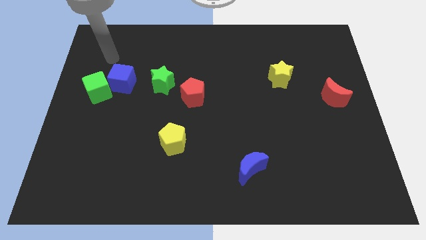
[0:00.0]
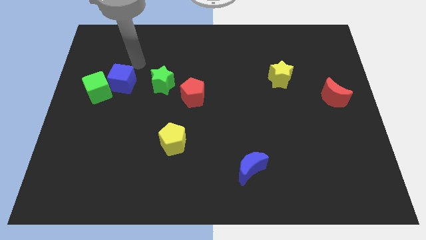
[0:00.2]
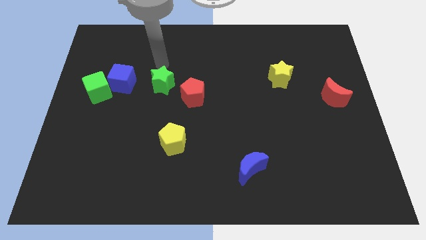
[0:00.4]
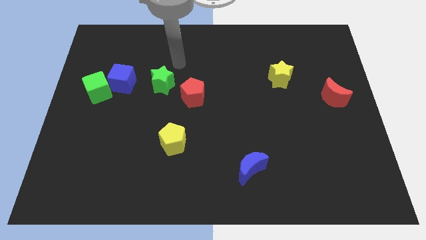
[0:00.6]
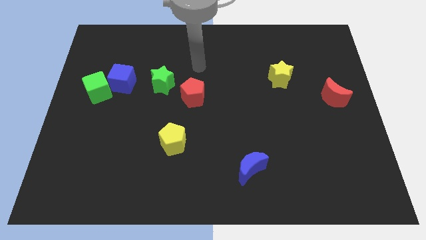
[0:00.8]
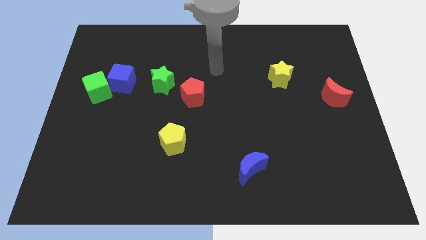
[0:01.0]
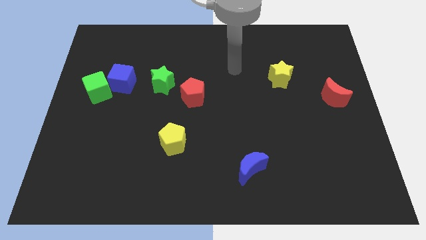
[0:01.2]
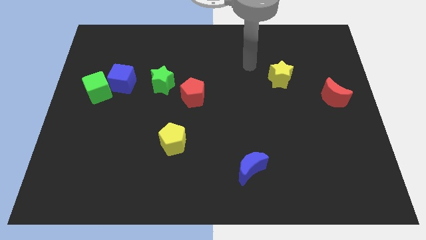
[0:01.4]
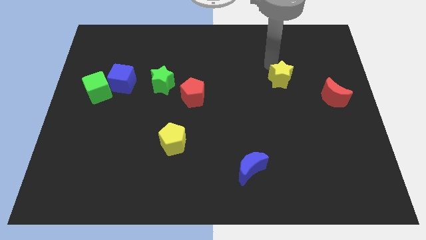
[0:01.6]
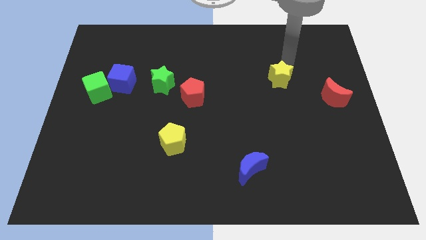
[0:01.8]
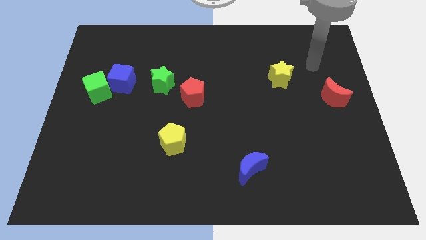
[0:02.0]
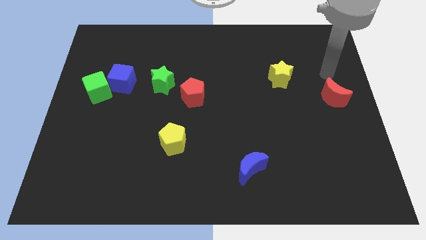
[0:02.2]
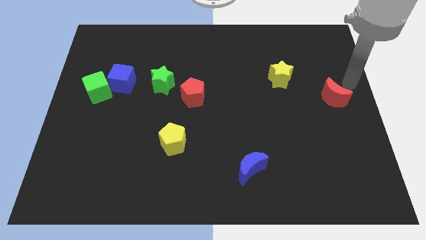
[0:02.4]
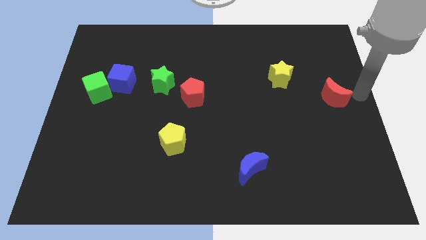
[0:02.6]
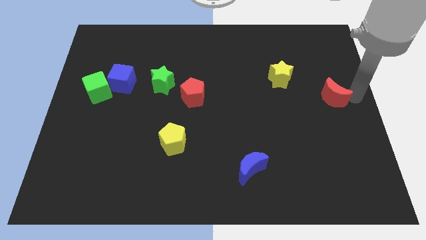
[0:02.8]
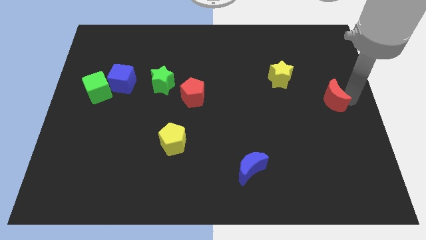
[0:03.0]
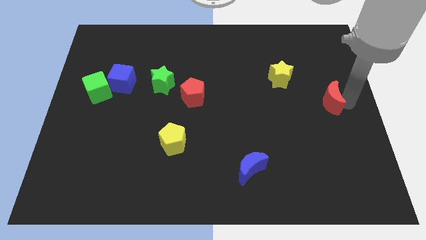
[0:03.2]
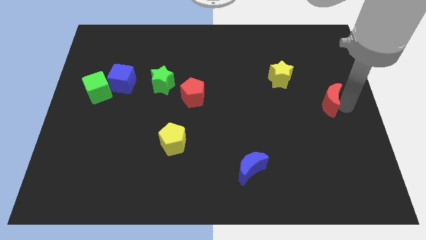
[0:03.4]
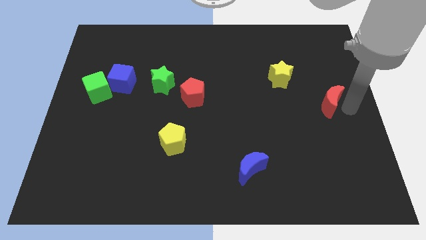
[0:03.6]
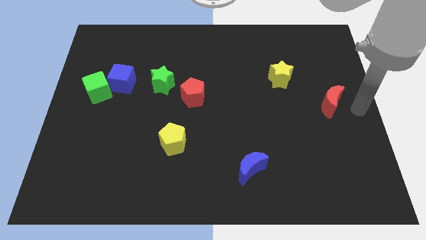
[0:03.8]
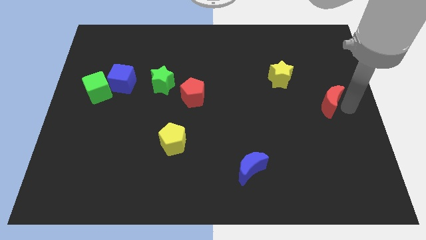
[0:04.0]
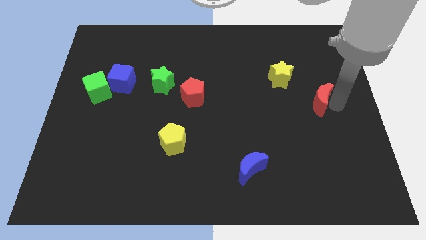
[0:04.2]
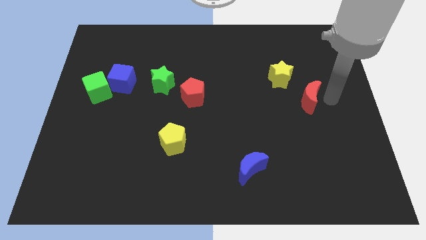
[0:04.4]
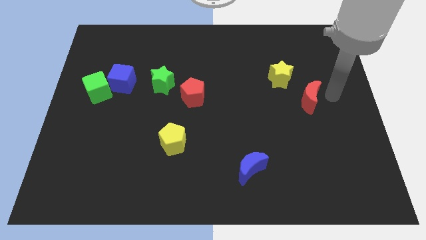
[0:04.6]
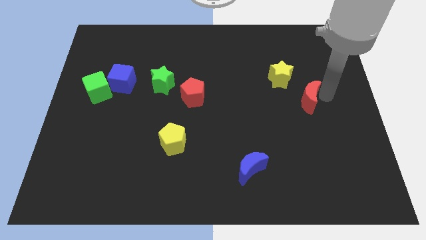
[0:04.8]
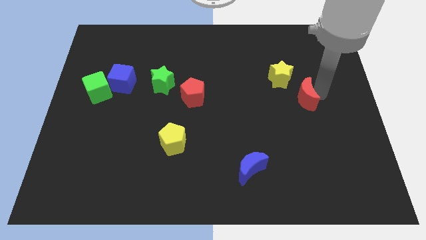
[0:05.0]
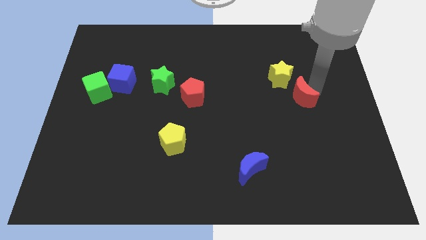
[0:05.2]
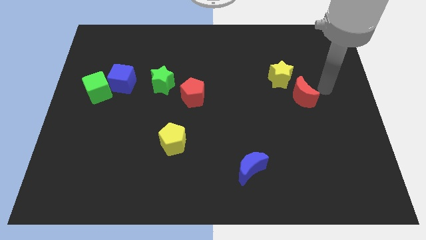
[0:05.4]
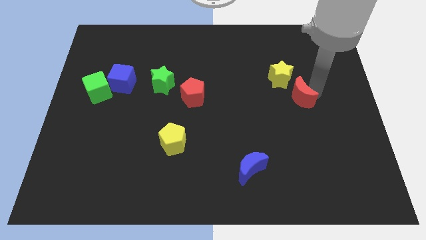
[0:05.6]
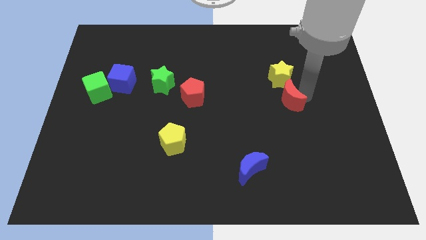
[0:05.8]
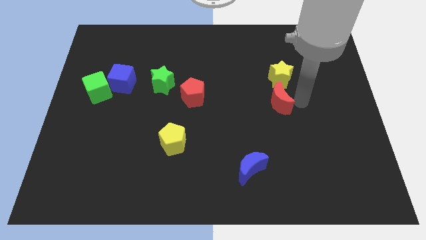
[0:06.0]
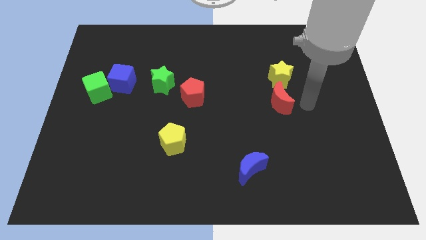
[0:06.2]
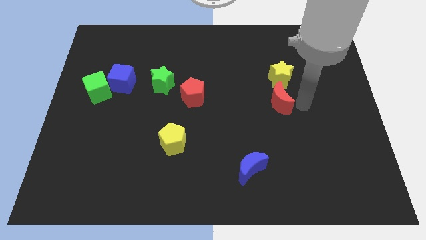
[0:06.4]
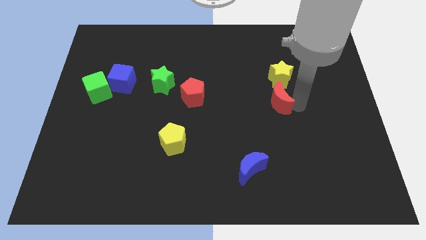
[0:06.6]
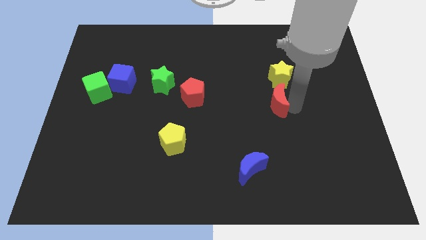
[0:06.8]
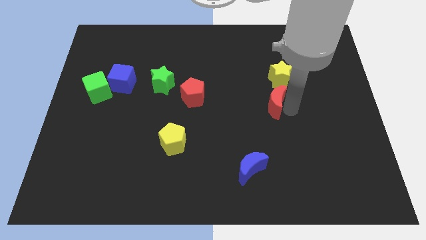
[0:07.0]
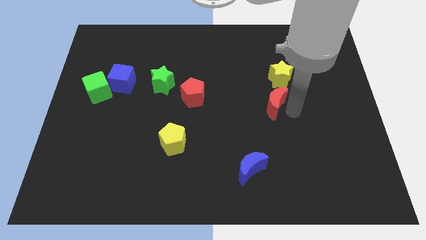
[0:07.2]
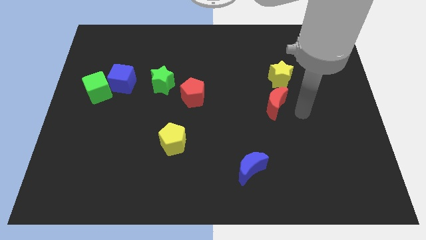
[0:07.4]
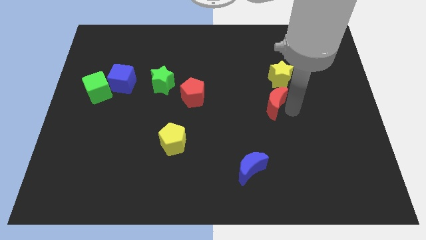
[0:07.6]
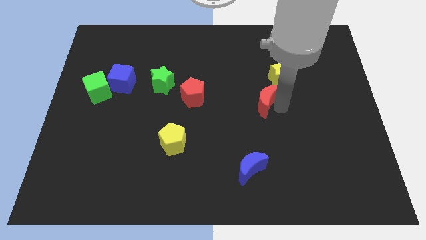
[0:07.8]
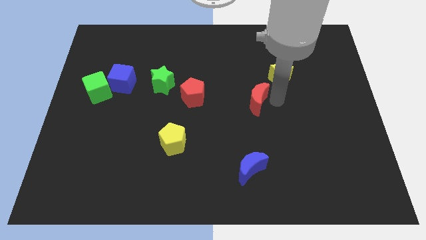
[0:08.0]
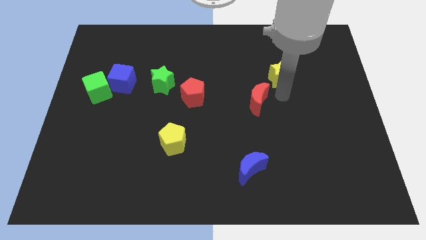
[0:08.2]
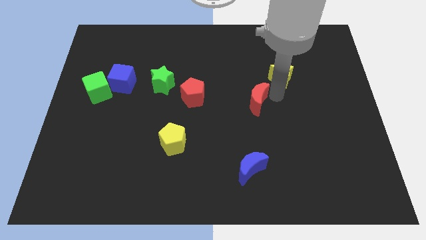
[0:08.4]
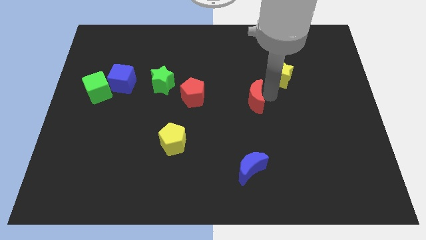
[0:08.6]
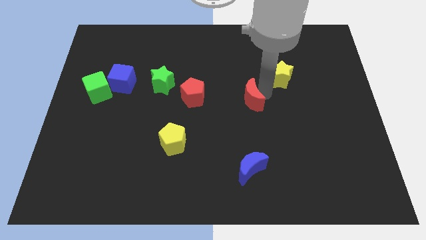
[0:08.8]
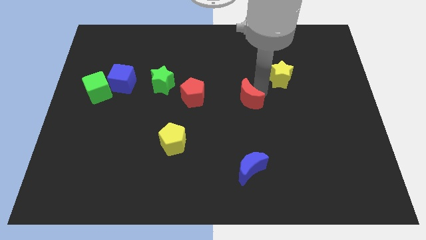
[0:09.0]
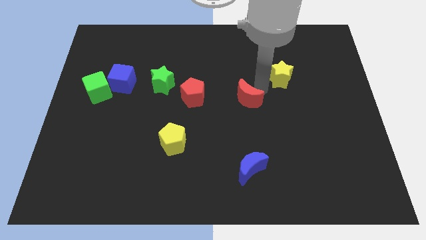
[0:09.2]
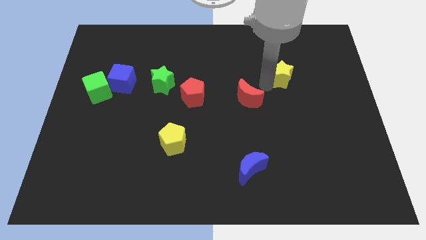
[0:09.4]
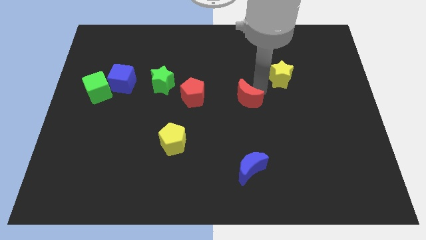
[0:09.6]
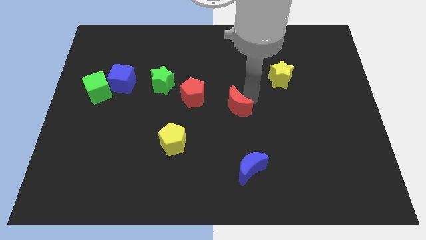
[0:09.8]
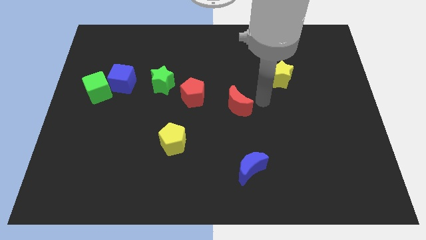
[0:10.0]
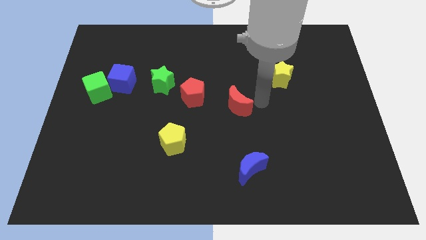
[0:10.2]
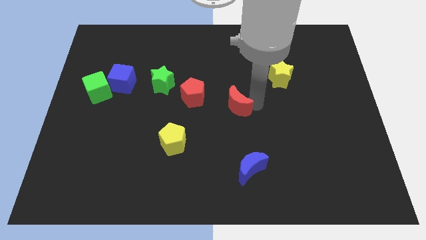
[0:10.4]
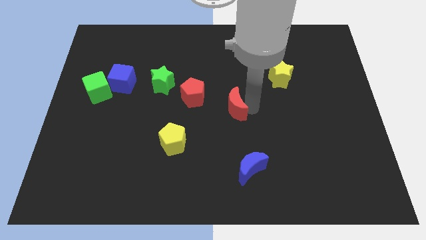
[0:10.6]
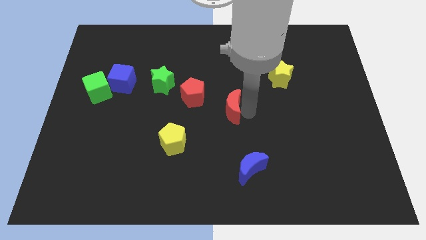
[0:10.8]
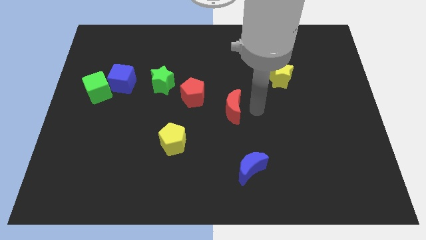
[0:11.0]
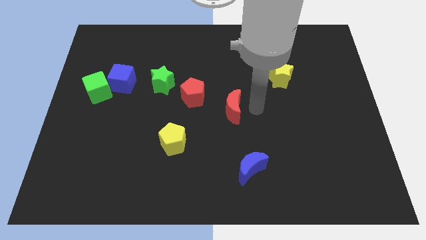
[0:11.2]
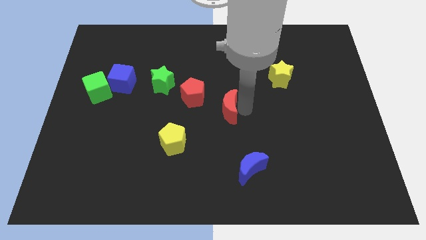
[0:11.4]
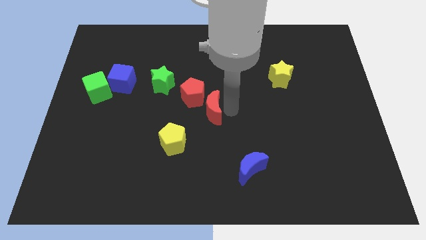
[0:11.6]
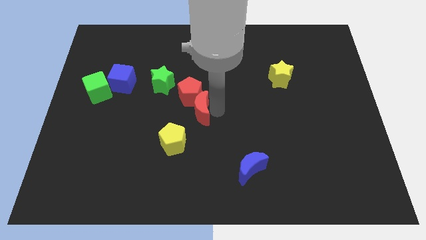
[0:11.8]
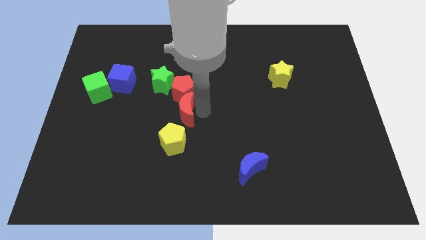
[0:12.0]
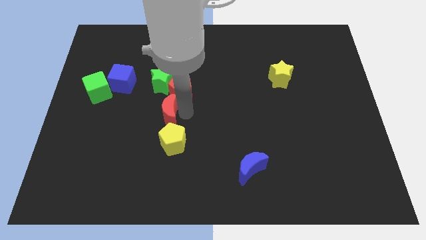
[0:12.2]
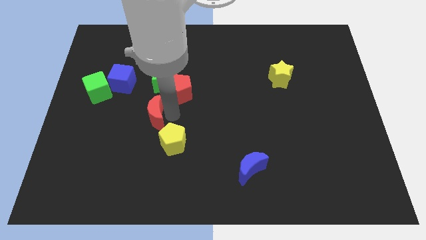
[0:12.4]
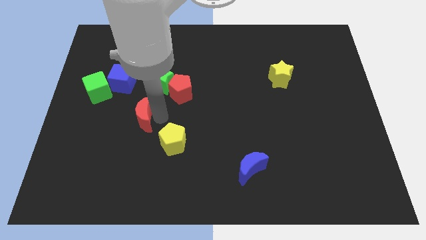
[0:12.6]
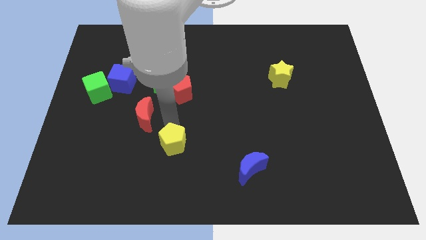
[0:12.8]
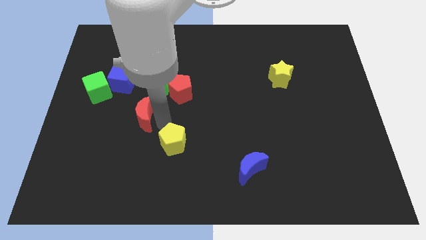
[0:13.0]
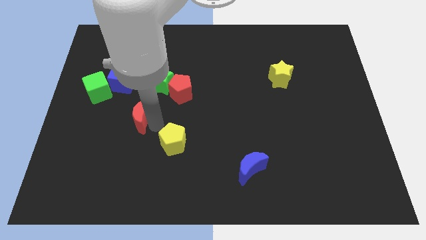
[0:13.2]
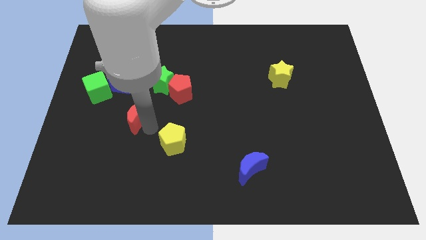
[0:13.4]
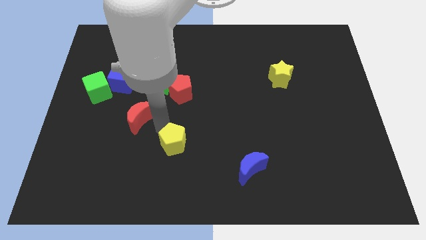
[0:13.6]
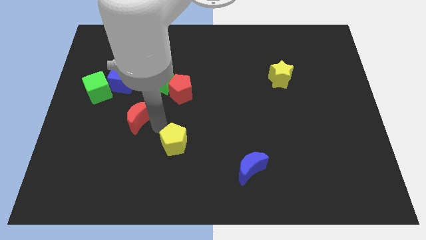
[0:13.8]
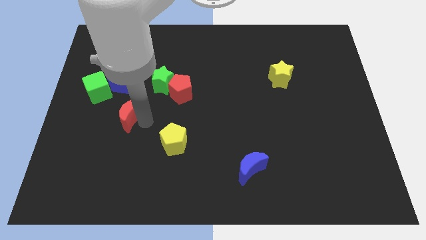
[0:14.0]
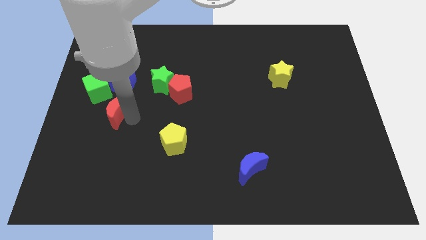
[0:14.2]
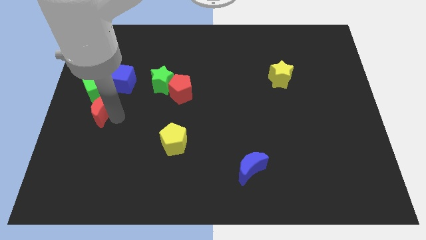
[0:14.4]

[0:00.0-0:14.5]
slide the red moon to the bottom left of the blue cube
